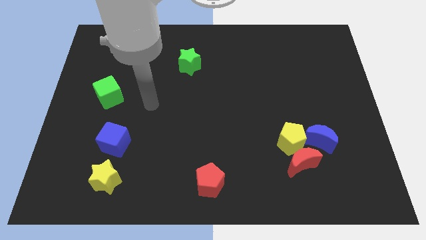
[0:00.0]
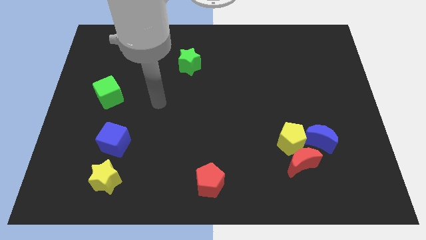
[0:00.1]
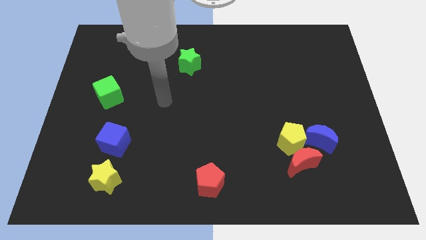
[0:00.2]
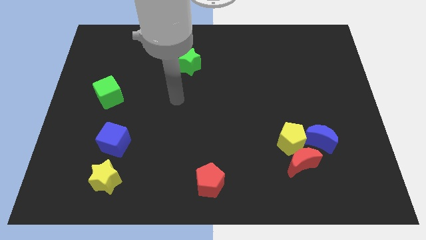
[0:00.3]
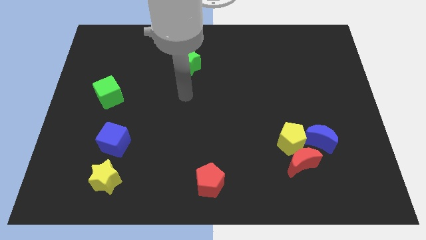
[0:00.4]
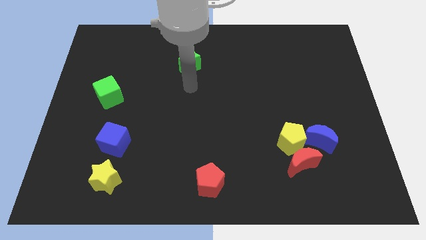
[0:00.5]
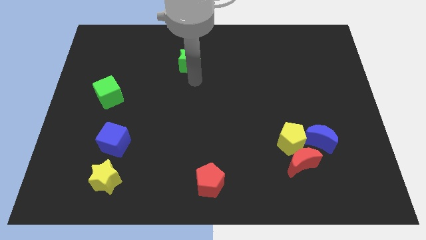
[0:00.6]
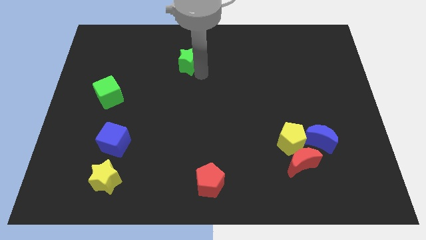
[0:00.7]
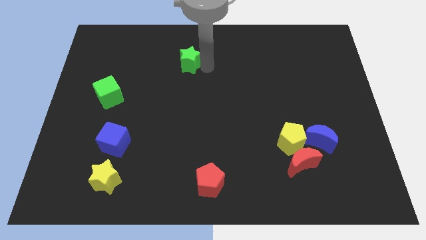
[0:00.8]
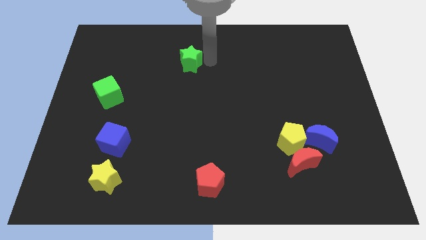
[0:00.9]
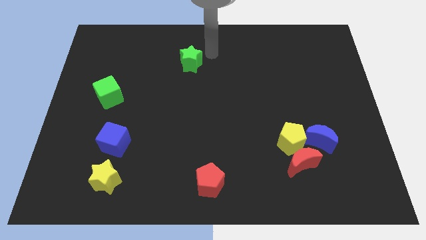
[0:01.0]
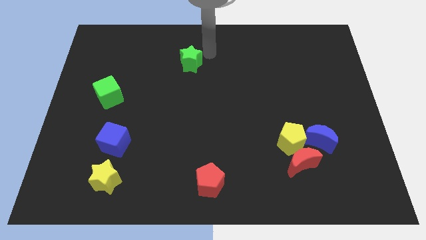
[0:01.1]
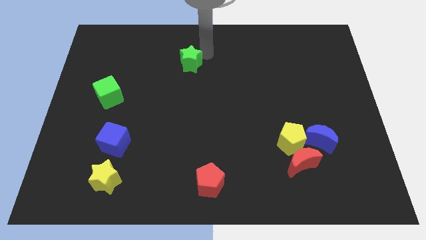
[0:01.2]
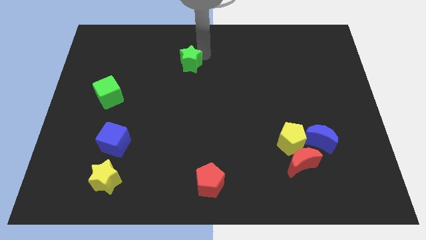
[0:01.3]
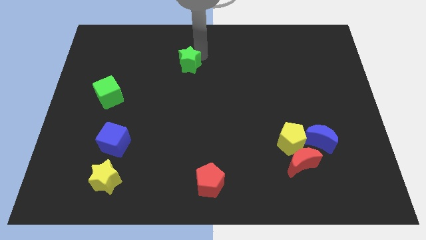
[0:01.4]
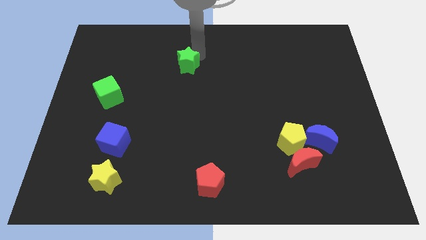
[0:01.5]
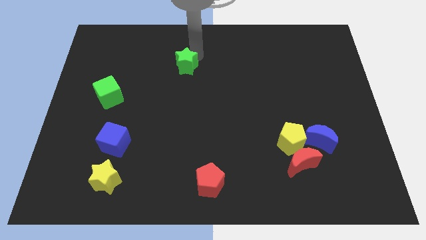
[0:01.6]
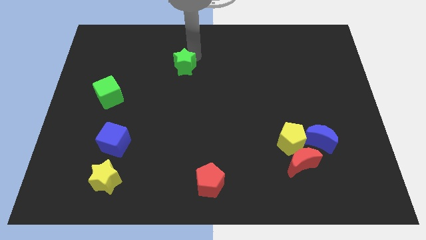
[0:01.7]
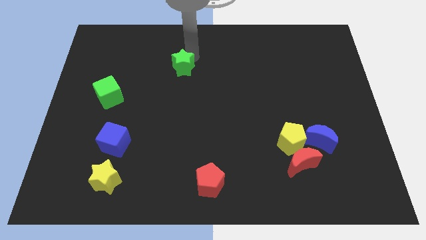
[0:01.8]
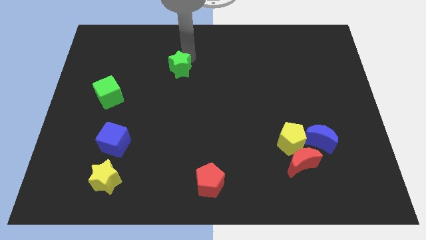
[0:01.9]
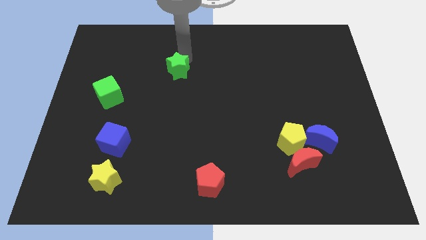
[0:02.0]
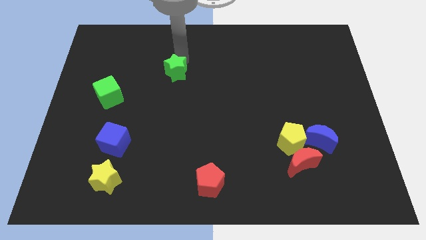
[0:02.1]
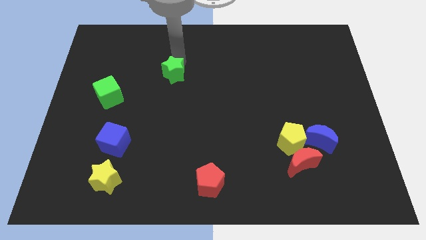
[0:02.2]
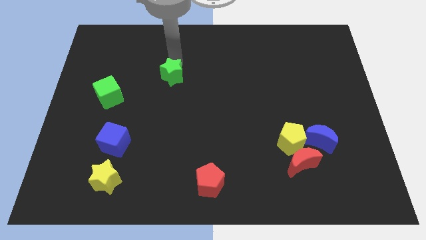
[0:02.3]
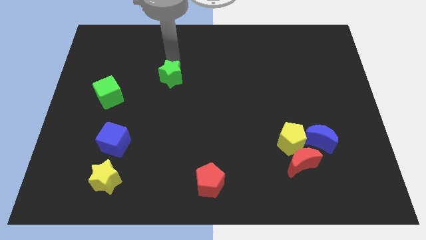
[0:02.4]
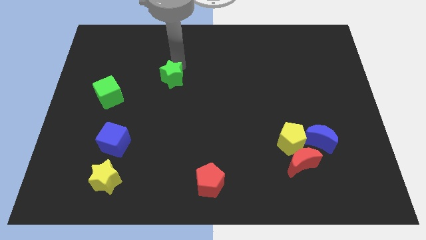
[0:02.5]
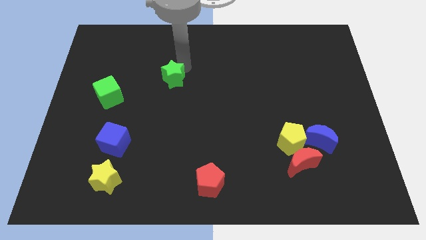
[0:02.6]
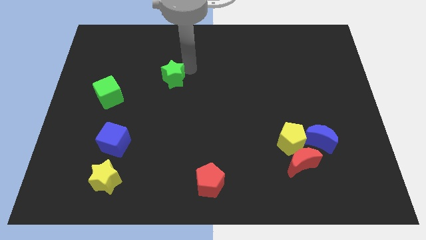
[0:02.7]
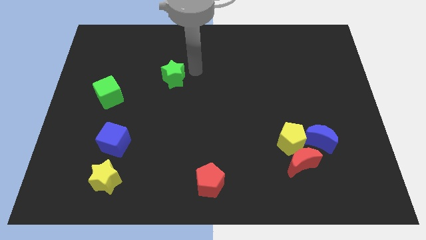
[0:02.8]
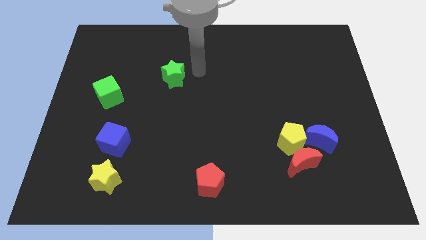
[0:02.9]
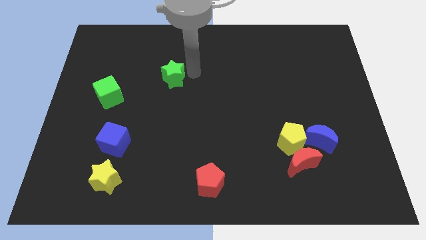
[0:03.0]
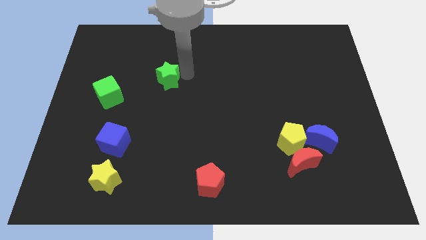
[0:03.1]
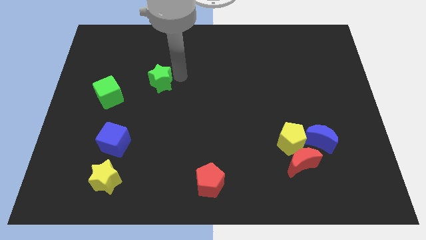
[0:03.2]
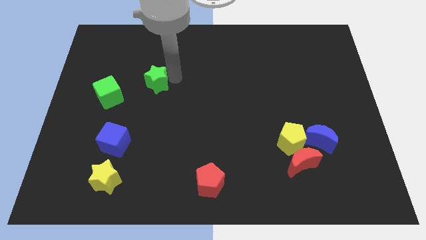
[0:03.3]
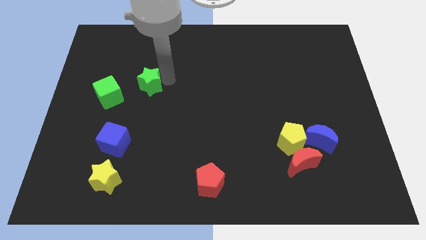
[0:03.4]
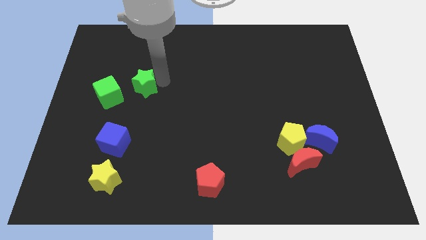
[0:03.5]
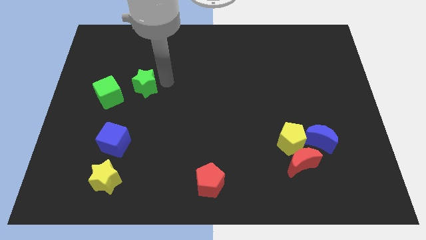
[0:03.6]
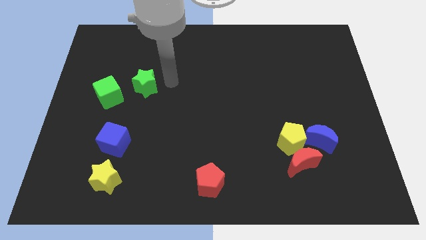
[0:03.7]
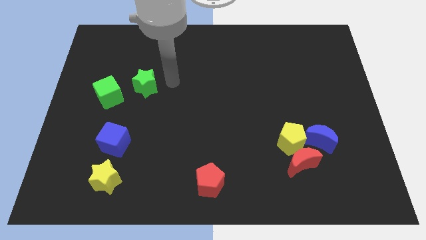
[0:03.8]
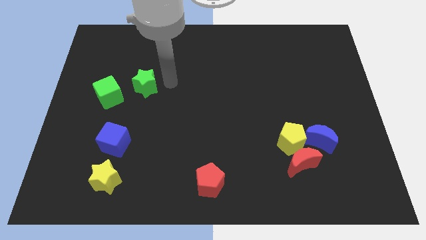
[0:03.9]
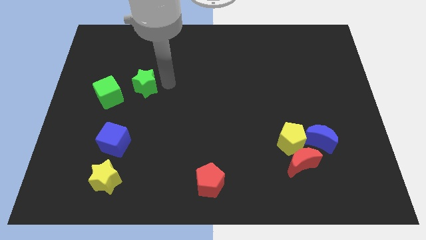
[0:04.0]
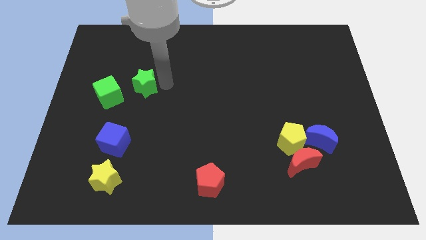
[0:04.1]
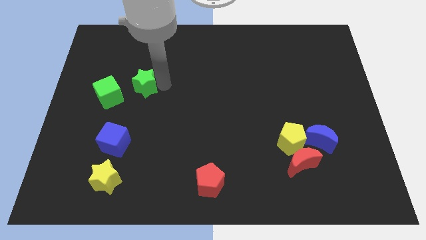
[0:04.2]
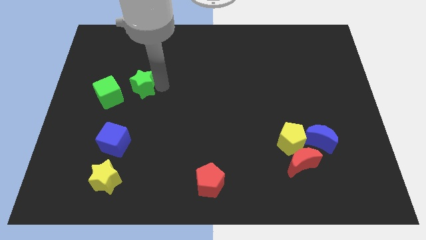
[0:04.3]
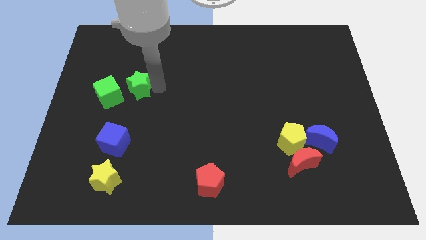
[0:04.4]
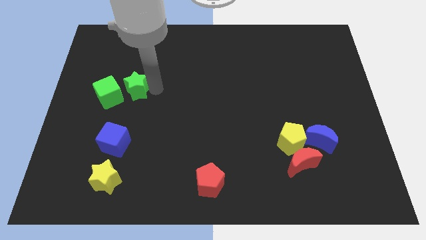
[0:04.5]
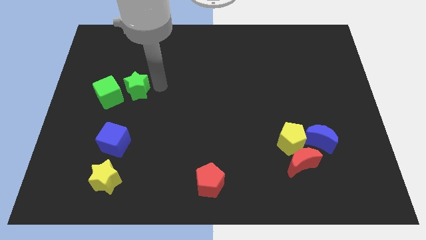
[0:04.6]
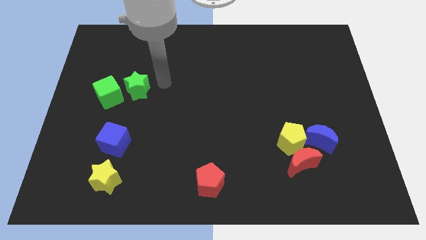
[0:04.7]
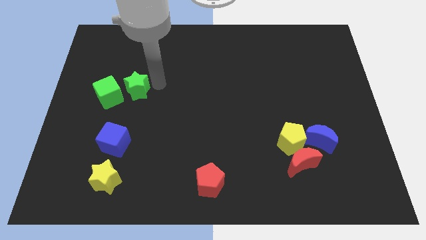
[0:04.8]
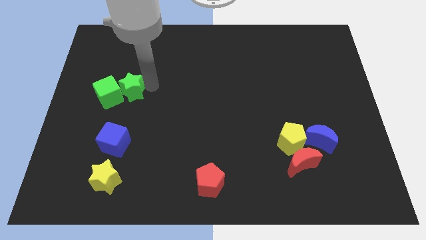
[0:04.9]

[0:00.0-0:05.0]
move the green star towards the green cube

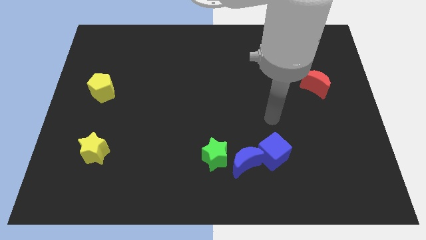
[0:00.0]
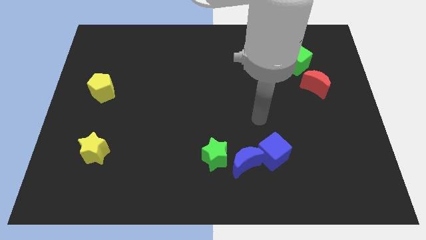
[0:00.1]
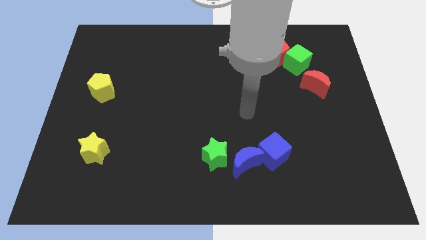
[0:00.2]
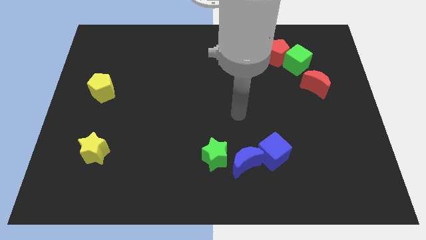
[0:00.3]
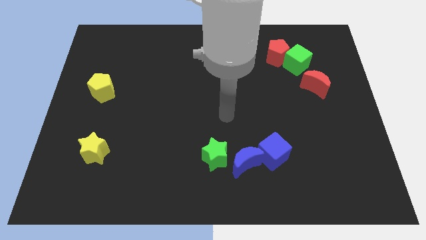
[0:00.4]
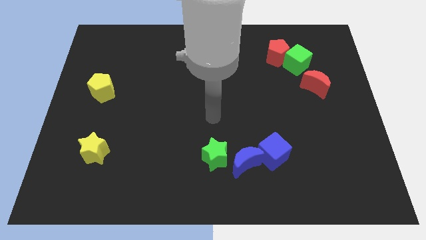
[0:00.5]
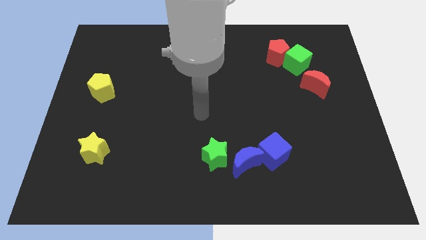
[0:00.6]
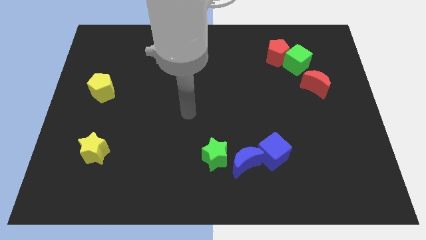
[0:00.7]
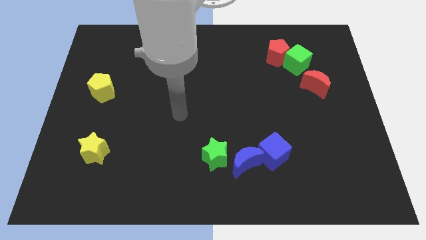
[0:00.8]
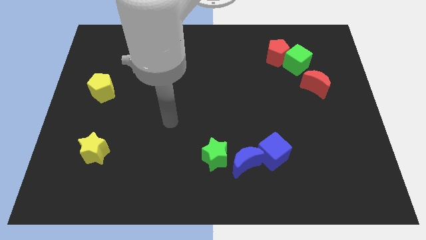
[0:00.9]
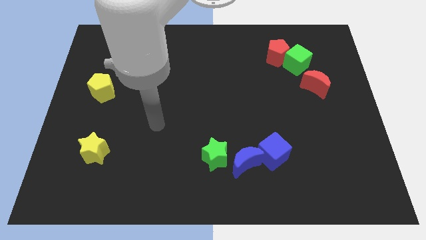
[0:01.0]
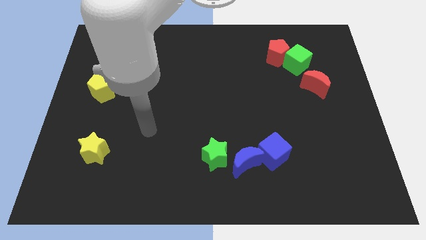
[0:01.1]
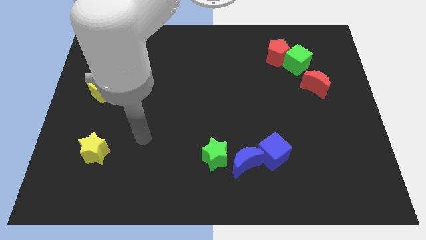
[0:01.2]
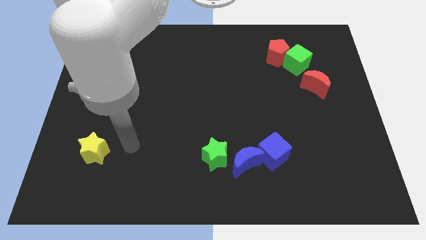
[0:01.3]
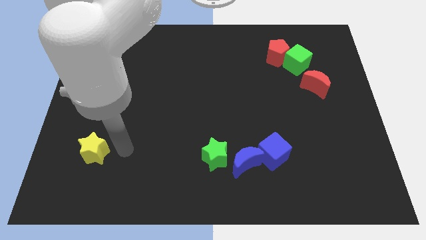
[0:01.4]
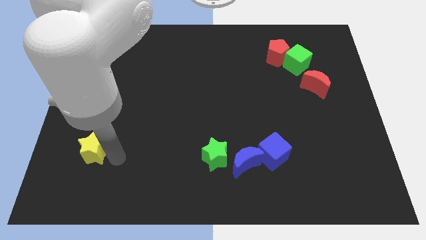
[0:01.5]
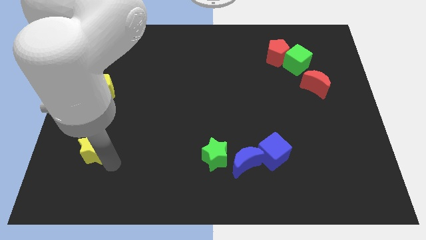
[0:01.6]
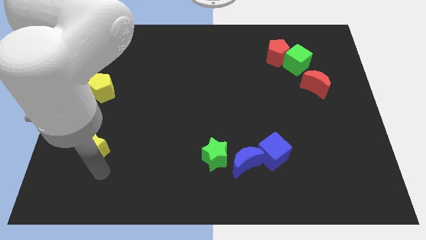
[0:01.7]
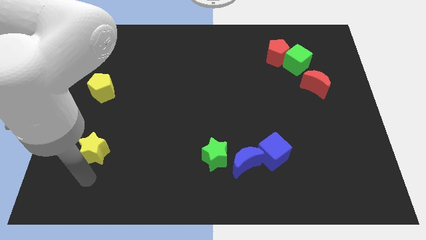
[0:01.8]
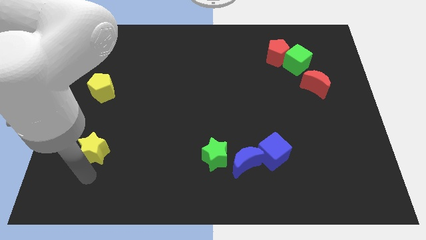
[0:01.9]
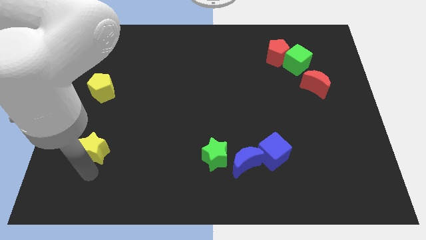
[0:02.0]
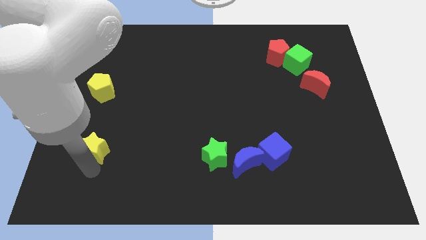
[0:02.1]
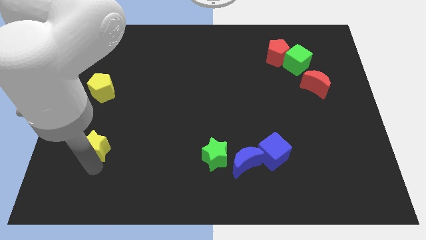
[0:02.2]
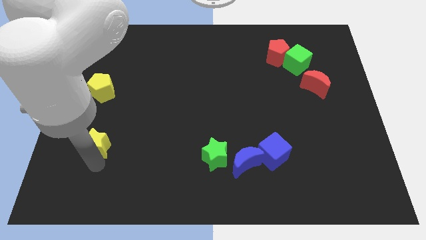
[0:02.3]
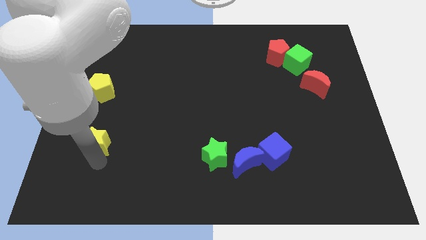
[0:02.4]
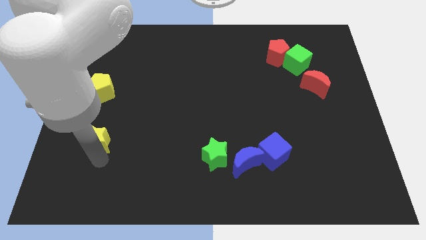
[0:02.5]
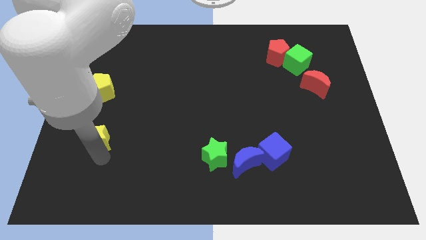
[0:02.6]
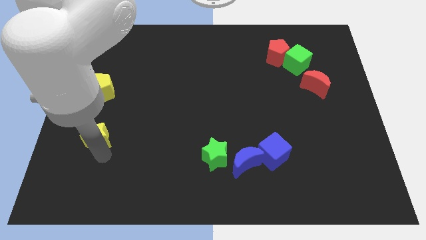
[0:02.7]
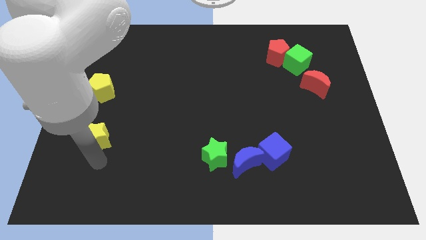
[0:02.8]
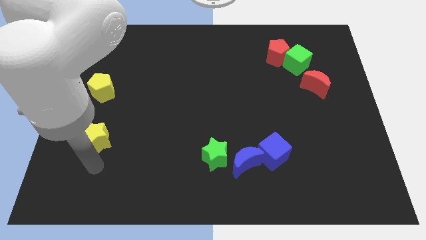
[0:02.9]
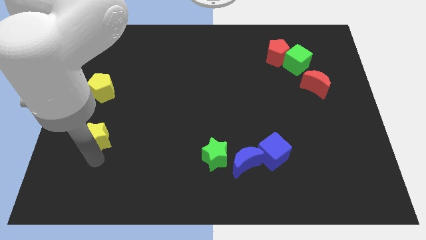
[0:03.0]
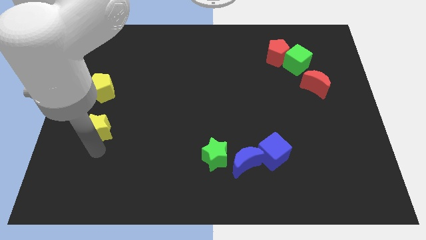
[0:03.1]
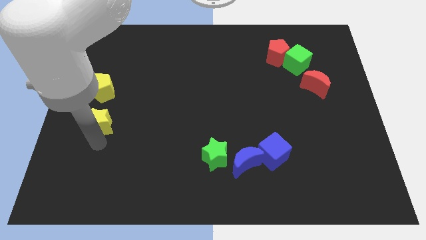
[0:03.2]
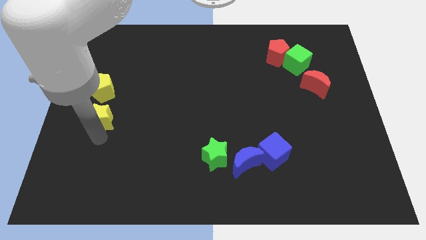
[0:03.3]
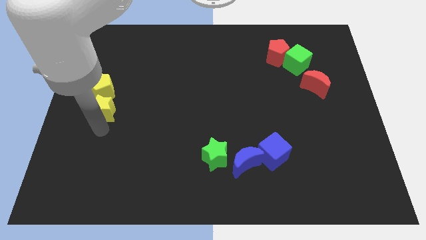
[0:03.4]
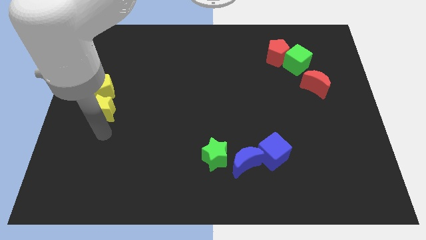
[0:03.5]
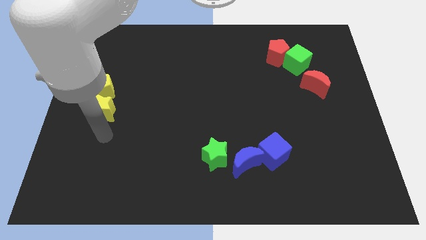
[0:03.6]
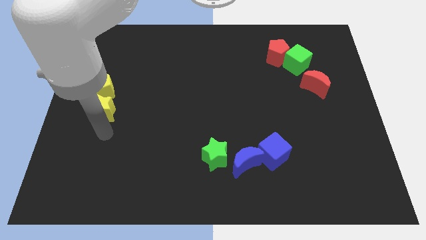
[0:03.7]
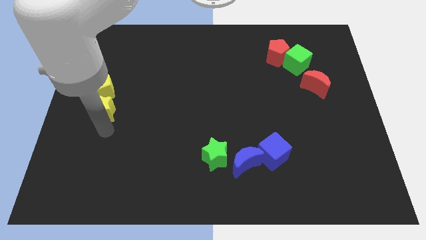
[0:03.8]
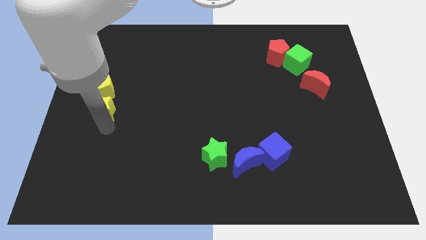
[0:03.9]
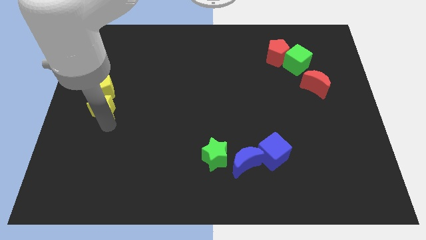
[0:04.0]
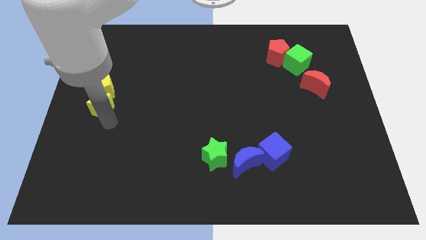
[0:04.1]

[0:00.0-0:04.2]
put the yellow star to the yellow pentagon
